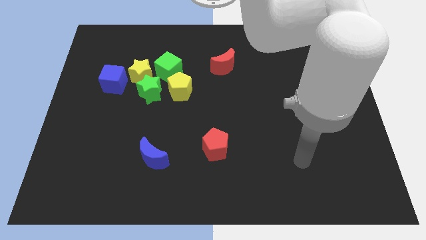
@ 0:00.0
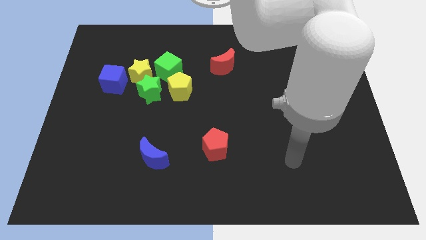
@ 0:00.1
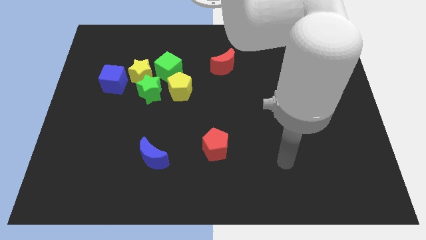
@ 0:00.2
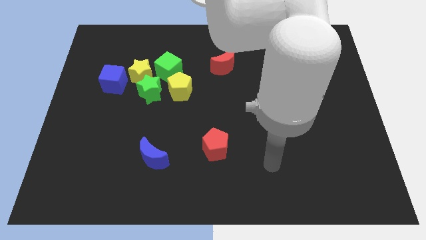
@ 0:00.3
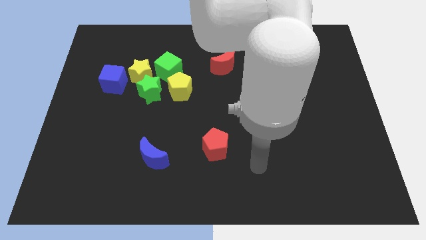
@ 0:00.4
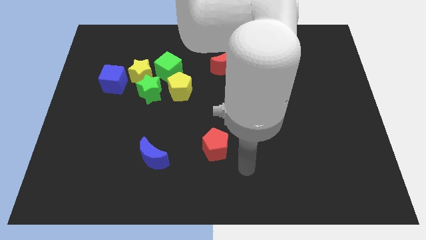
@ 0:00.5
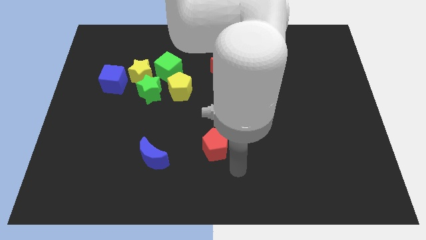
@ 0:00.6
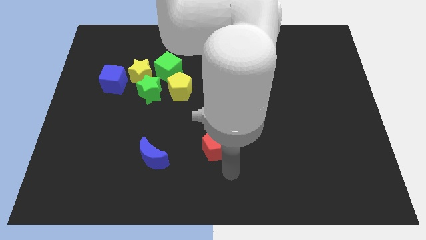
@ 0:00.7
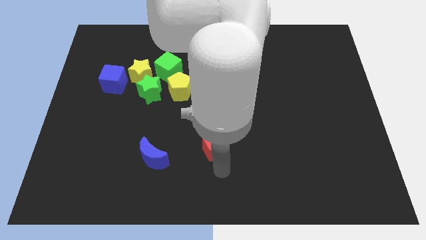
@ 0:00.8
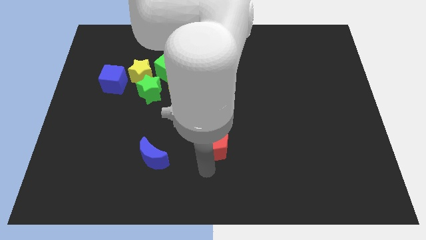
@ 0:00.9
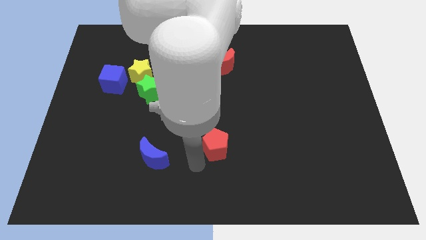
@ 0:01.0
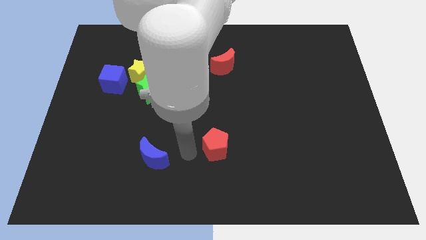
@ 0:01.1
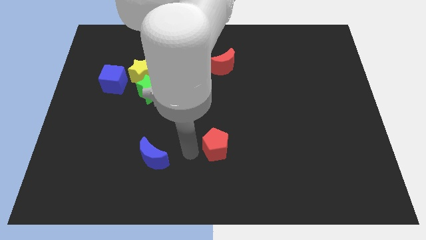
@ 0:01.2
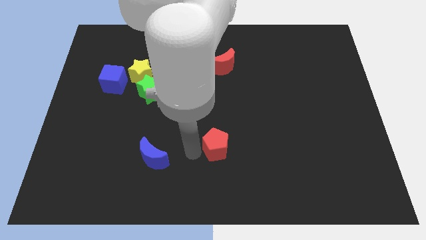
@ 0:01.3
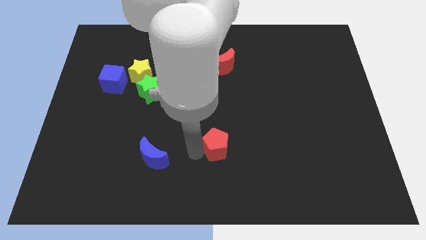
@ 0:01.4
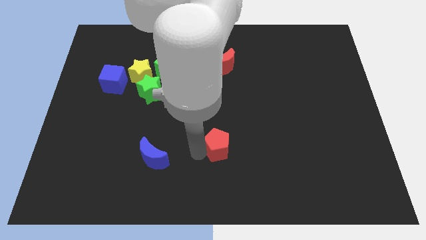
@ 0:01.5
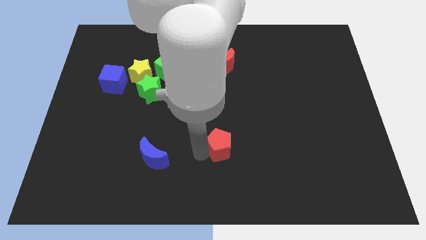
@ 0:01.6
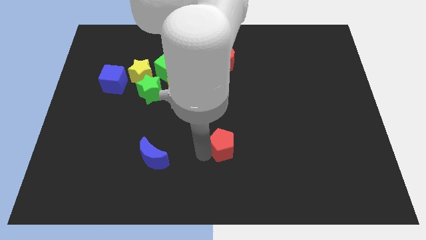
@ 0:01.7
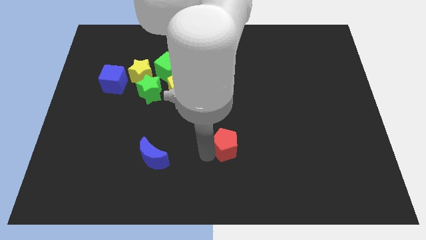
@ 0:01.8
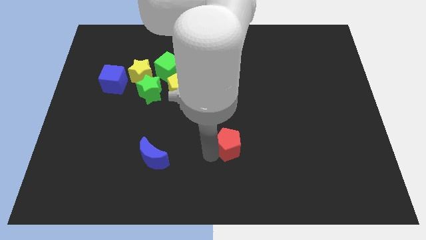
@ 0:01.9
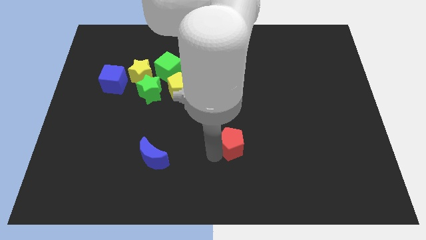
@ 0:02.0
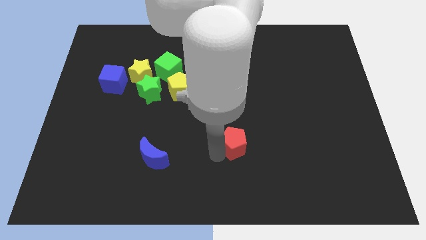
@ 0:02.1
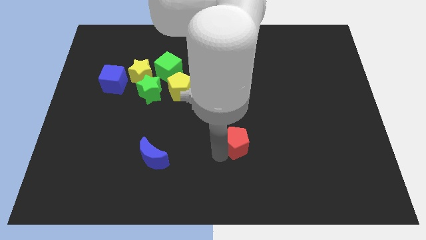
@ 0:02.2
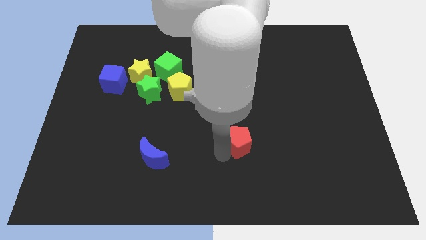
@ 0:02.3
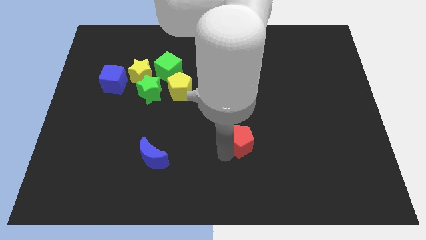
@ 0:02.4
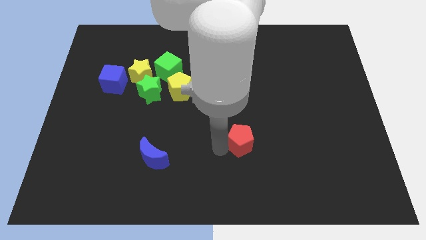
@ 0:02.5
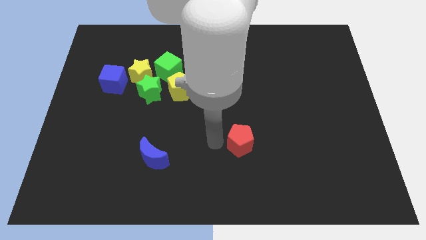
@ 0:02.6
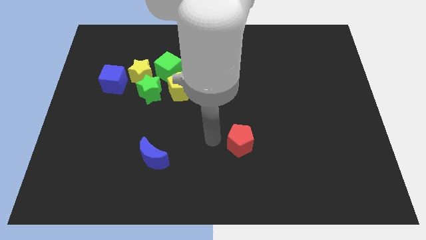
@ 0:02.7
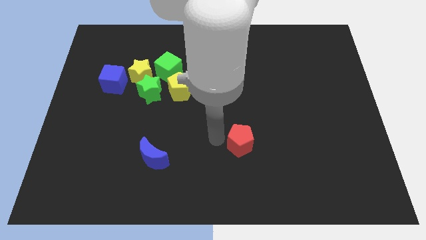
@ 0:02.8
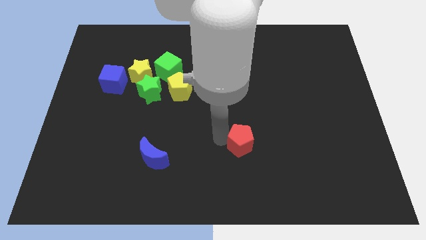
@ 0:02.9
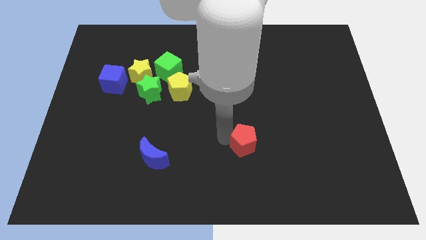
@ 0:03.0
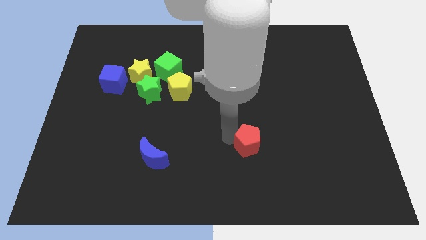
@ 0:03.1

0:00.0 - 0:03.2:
move the red pentagon to the right somewhat

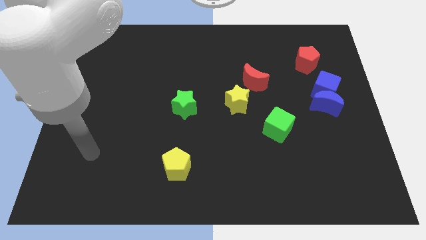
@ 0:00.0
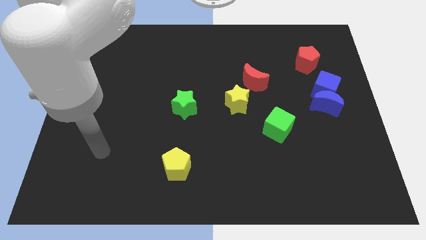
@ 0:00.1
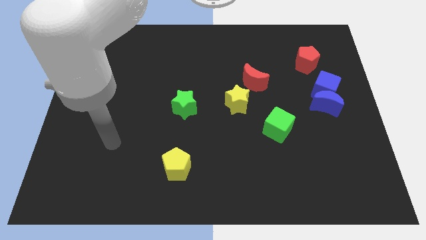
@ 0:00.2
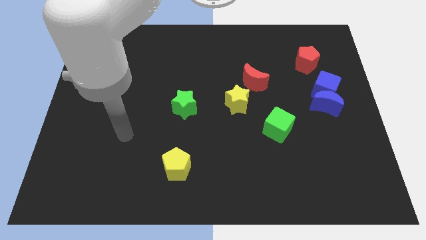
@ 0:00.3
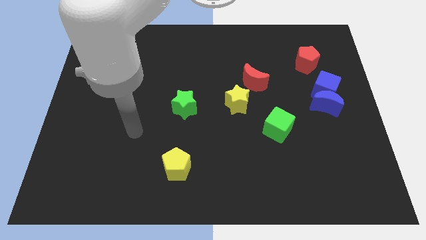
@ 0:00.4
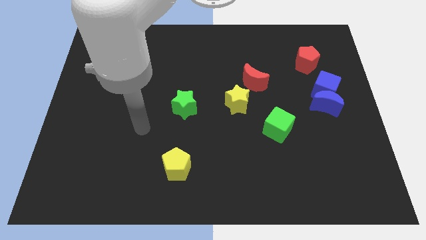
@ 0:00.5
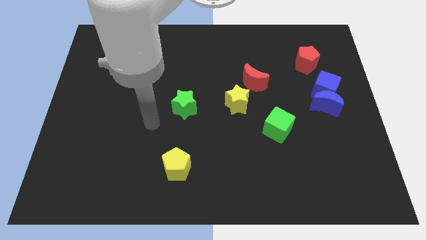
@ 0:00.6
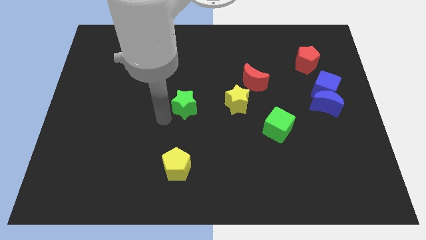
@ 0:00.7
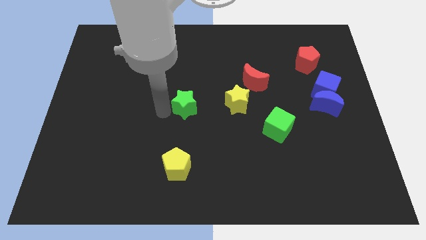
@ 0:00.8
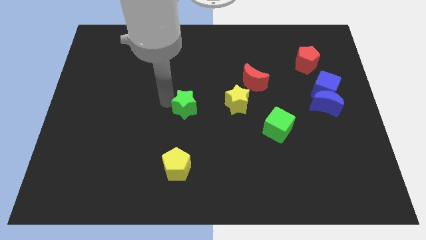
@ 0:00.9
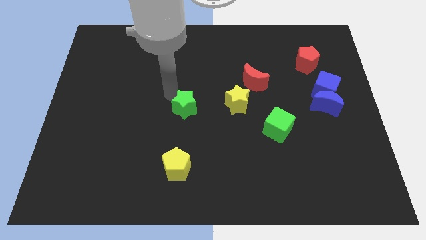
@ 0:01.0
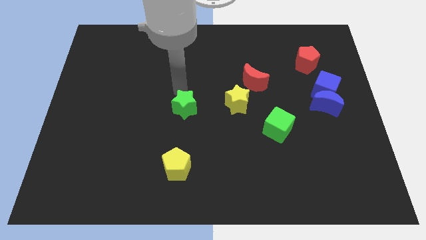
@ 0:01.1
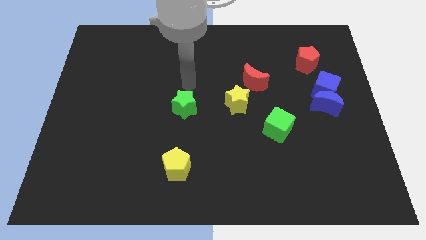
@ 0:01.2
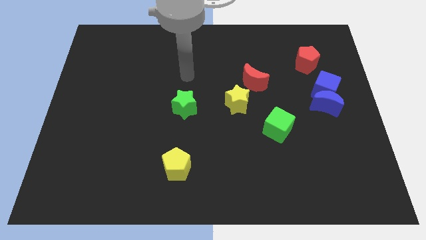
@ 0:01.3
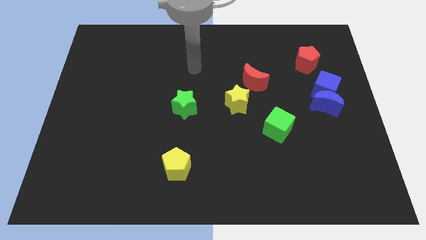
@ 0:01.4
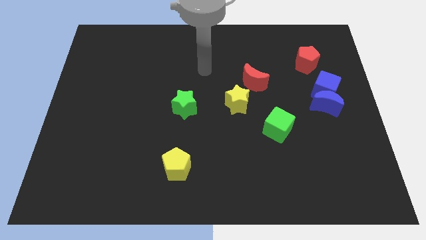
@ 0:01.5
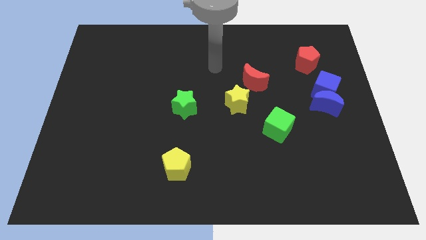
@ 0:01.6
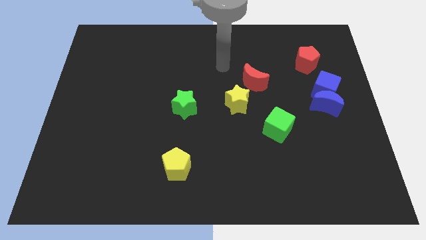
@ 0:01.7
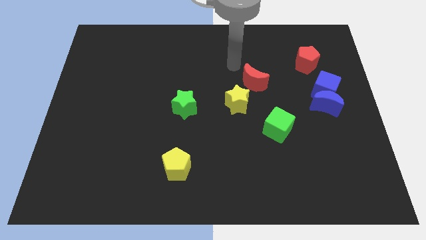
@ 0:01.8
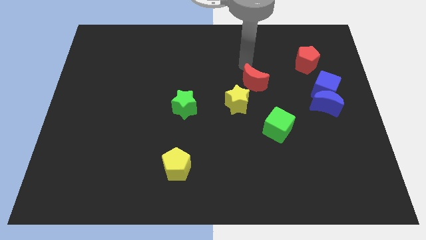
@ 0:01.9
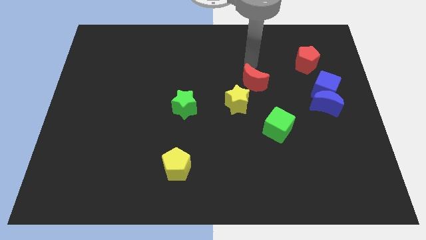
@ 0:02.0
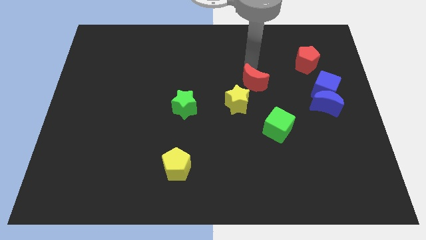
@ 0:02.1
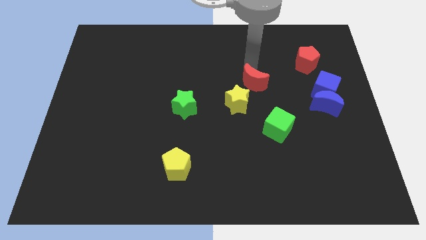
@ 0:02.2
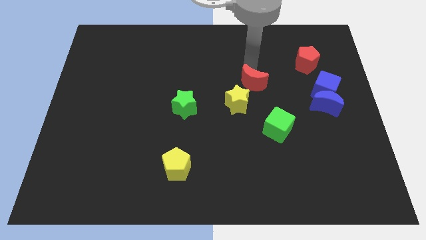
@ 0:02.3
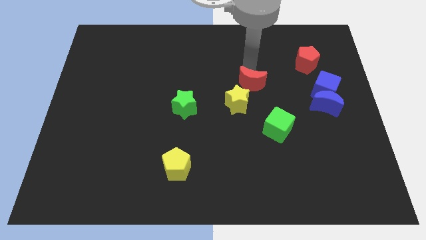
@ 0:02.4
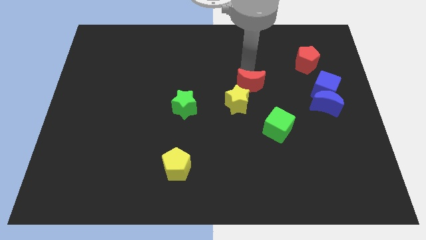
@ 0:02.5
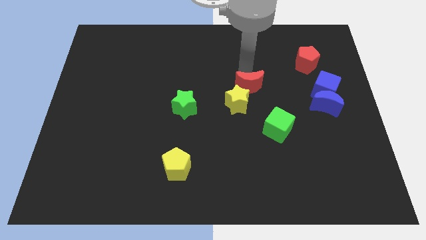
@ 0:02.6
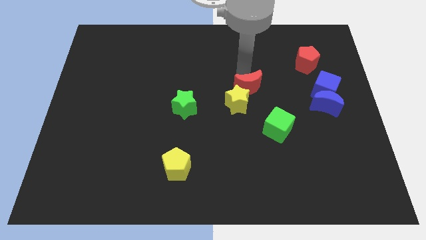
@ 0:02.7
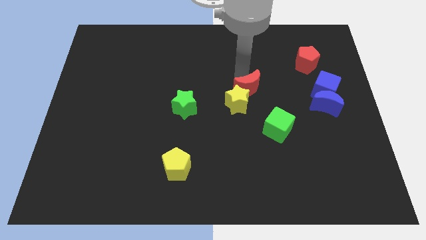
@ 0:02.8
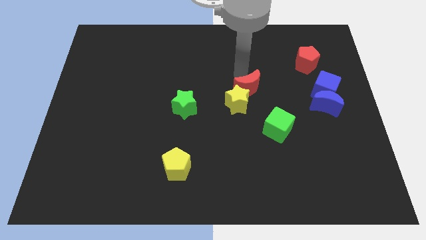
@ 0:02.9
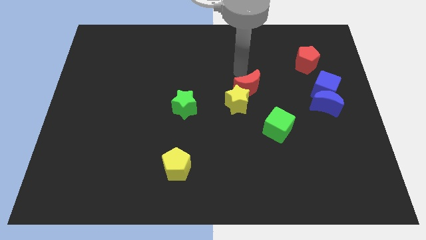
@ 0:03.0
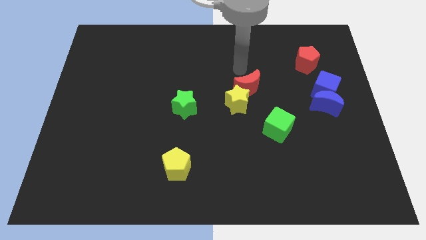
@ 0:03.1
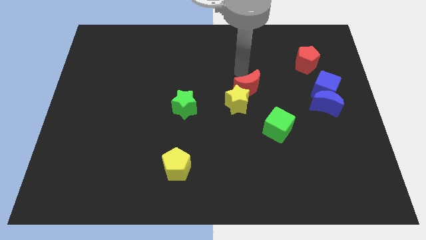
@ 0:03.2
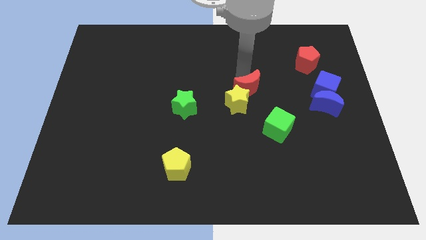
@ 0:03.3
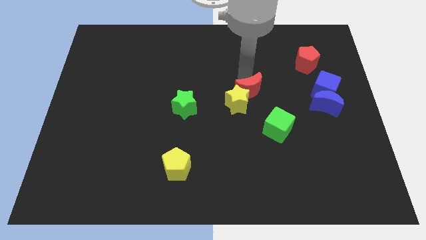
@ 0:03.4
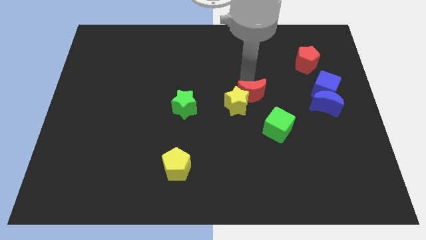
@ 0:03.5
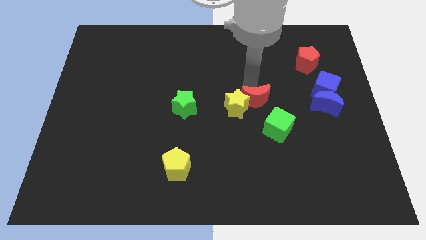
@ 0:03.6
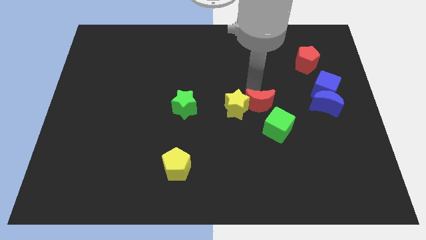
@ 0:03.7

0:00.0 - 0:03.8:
move the red moon somewhat down

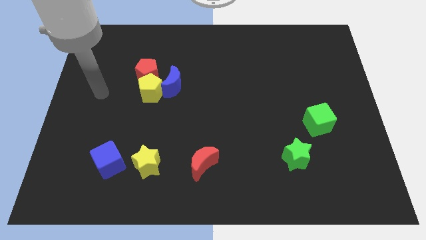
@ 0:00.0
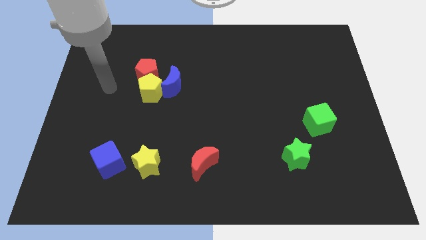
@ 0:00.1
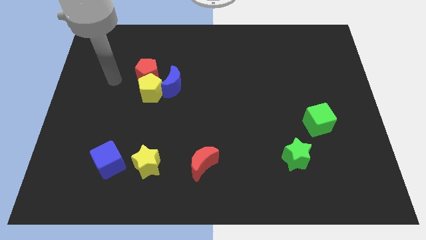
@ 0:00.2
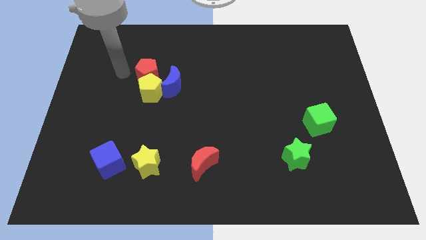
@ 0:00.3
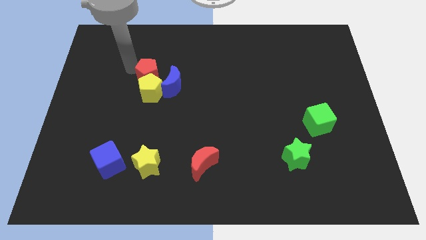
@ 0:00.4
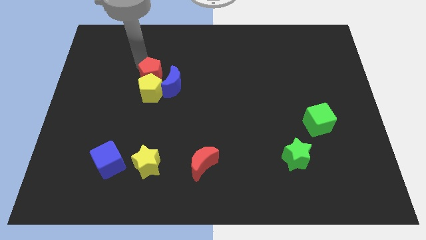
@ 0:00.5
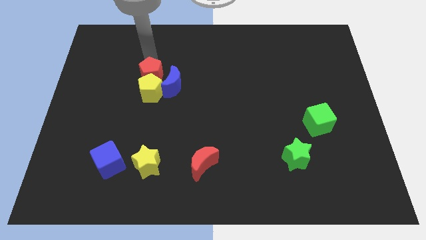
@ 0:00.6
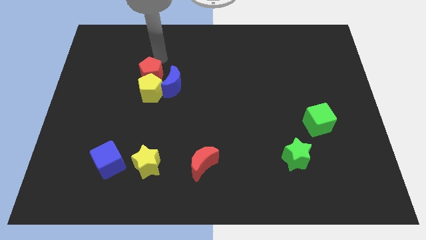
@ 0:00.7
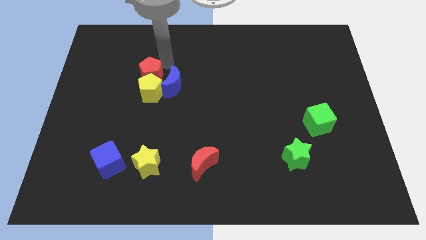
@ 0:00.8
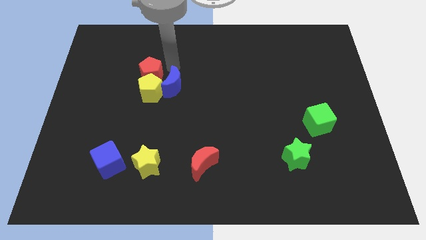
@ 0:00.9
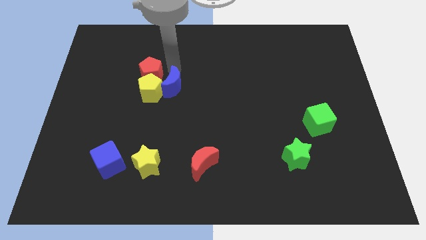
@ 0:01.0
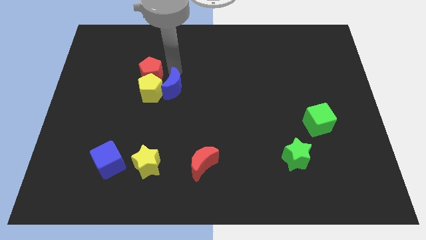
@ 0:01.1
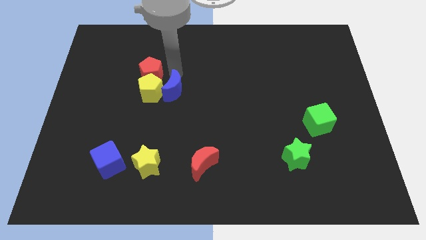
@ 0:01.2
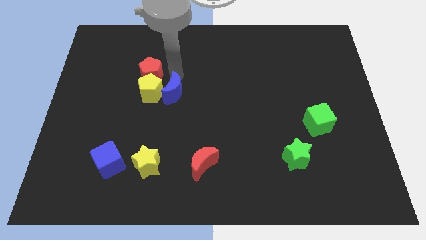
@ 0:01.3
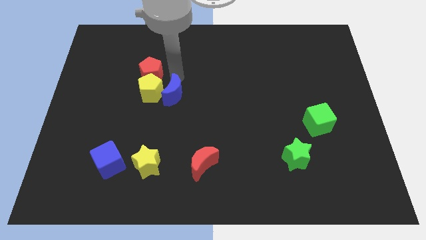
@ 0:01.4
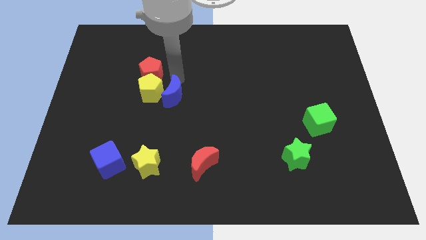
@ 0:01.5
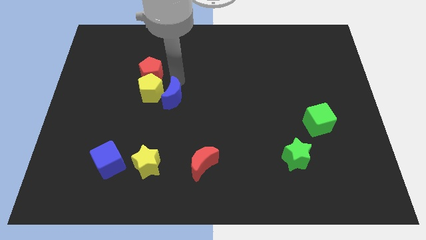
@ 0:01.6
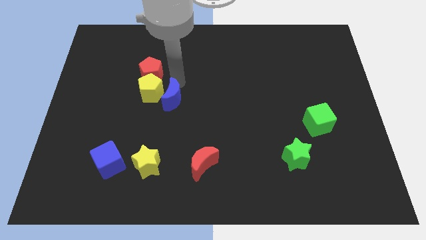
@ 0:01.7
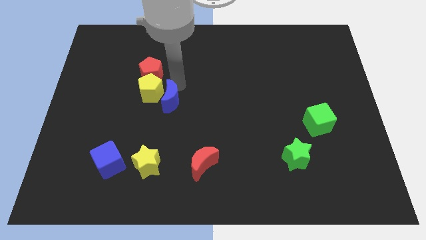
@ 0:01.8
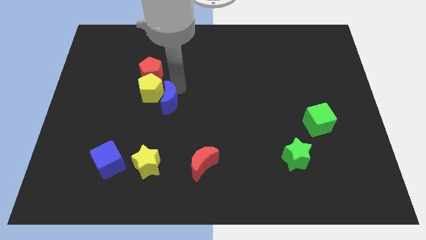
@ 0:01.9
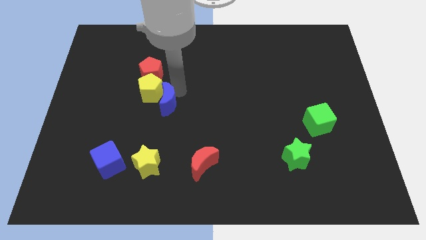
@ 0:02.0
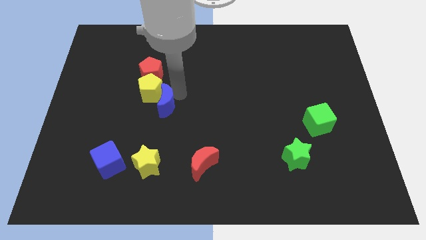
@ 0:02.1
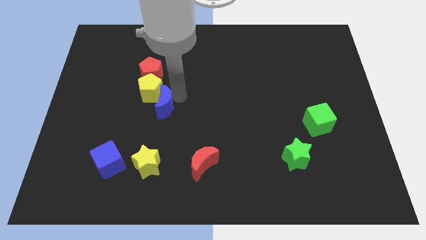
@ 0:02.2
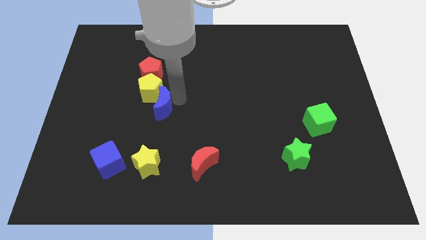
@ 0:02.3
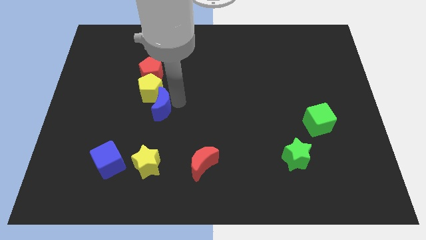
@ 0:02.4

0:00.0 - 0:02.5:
move the blue moon downwards a little
